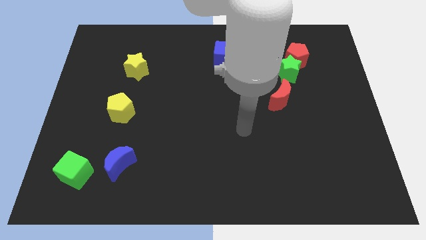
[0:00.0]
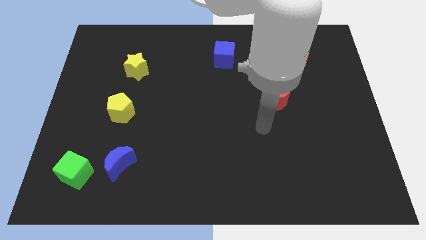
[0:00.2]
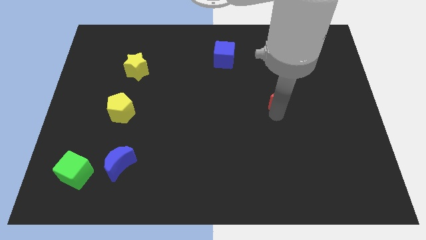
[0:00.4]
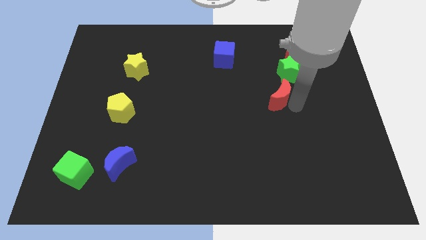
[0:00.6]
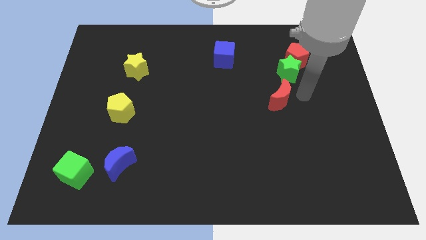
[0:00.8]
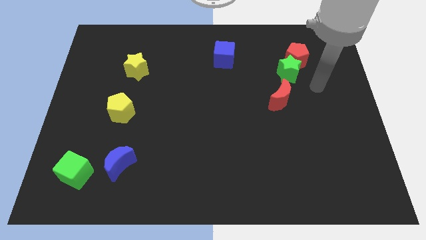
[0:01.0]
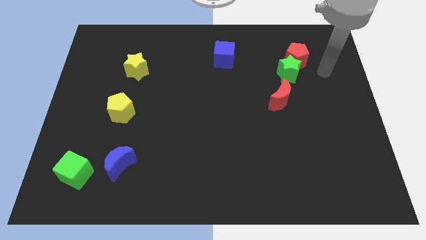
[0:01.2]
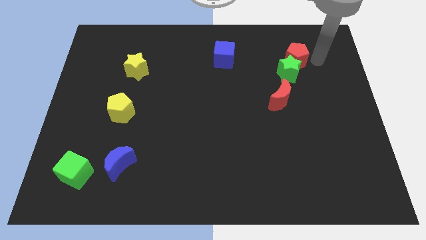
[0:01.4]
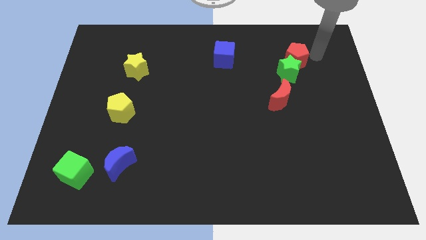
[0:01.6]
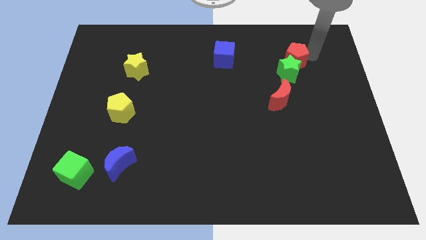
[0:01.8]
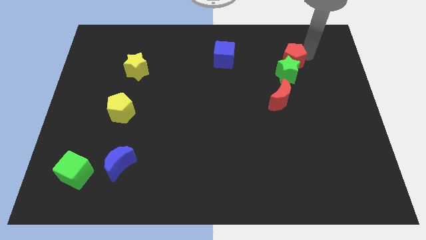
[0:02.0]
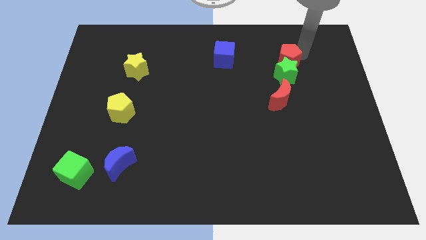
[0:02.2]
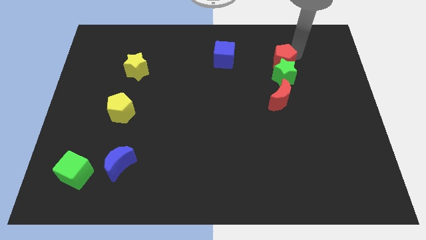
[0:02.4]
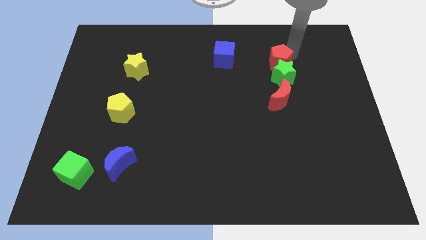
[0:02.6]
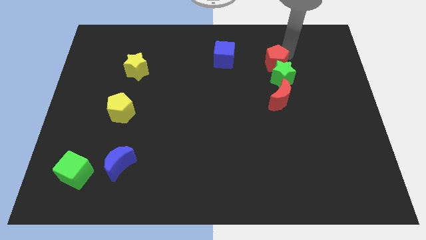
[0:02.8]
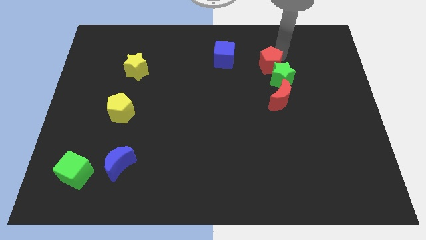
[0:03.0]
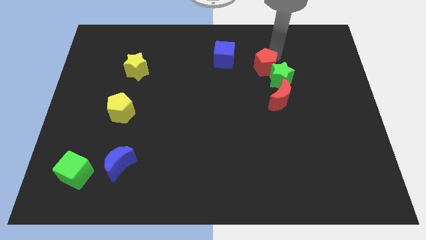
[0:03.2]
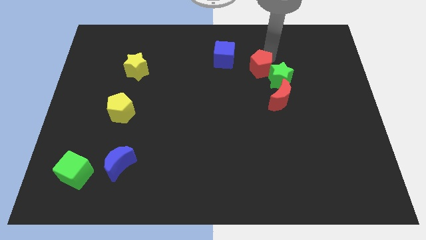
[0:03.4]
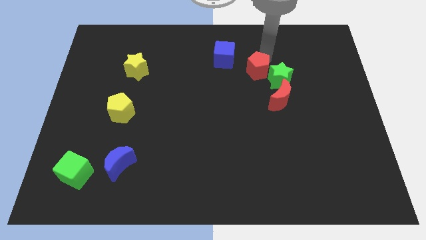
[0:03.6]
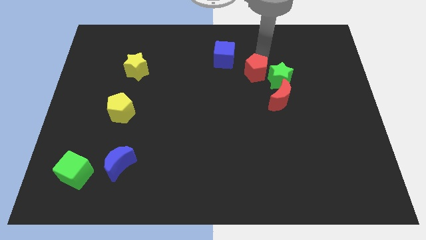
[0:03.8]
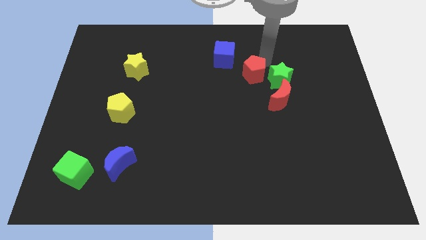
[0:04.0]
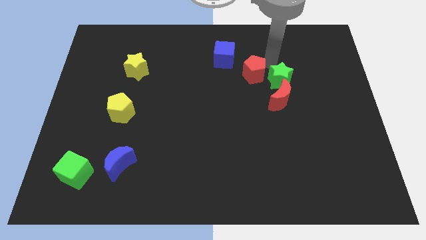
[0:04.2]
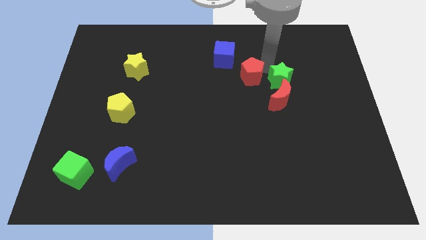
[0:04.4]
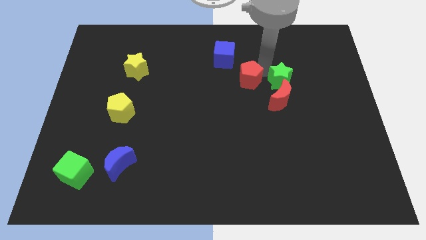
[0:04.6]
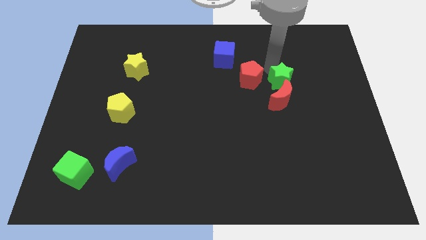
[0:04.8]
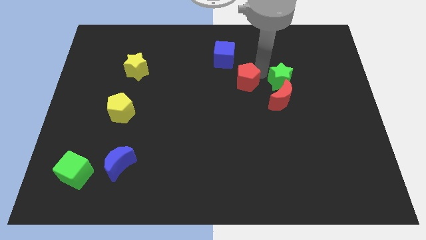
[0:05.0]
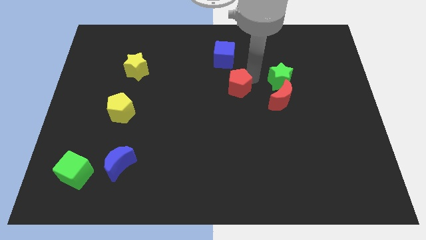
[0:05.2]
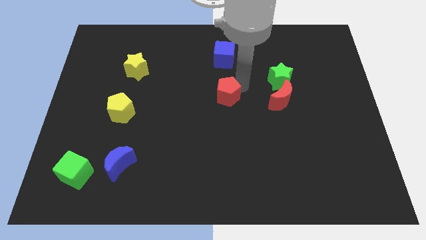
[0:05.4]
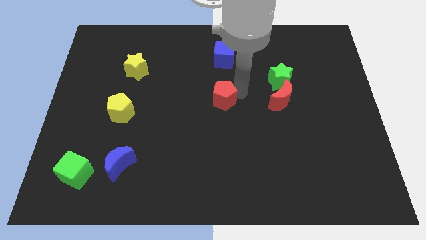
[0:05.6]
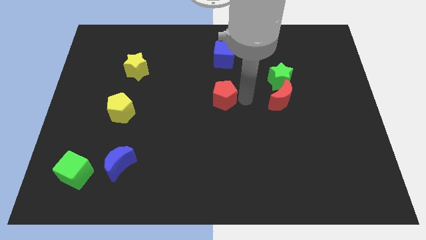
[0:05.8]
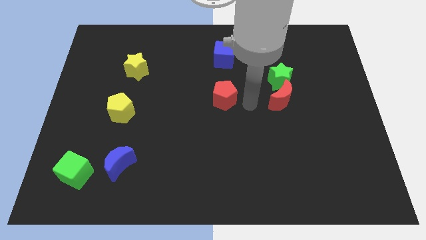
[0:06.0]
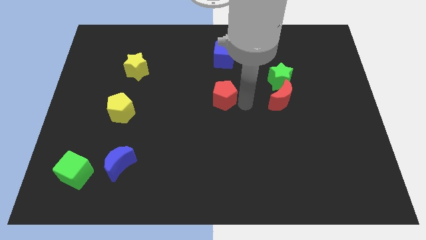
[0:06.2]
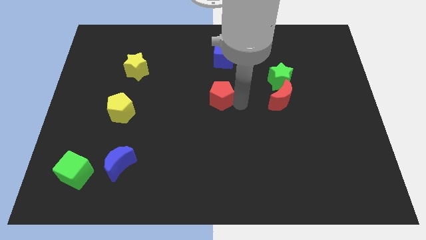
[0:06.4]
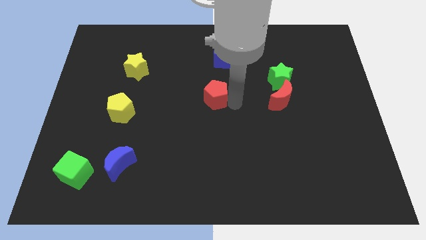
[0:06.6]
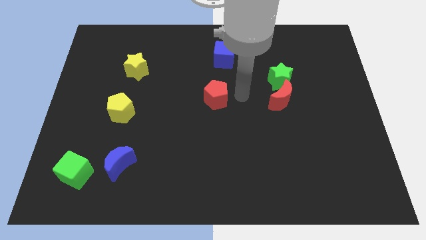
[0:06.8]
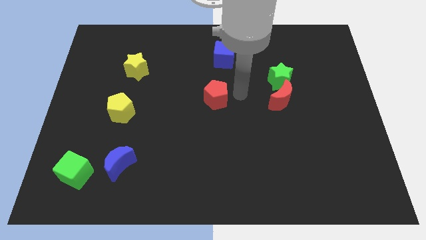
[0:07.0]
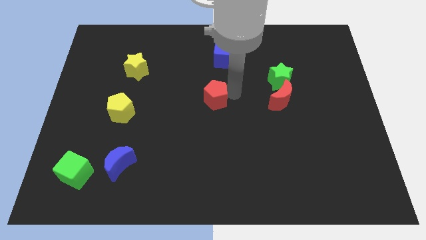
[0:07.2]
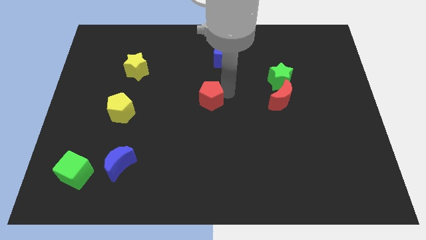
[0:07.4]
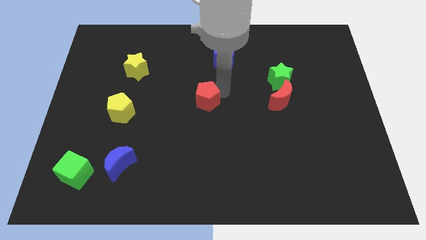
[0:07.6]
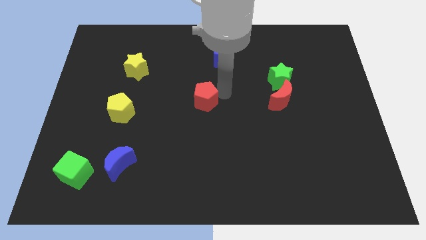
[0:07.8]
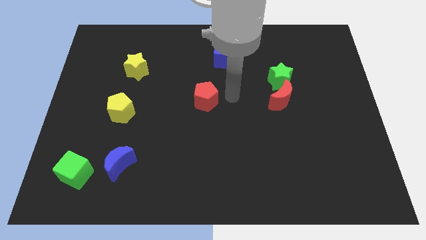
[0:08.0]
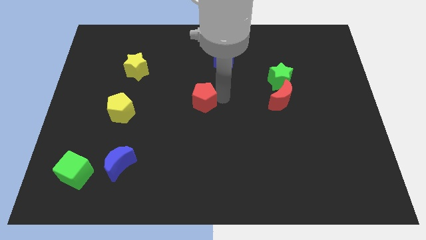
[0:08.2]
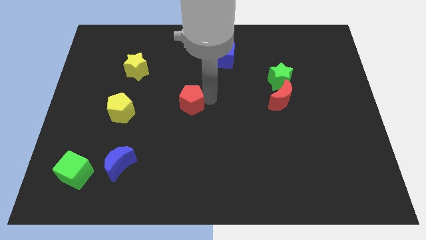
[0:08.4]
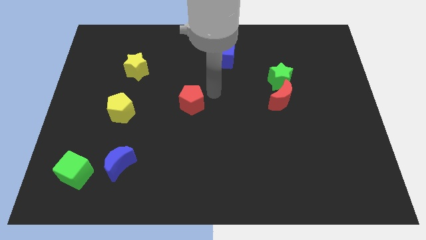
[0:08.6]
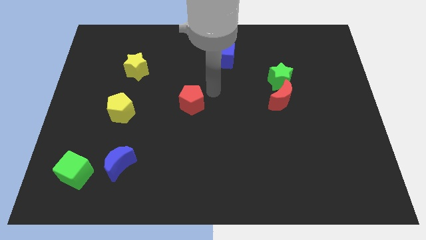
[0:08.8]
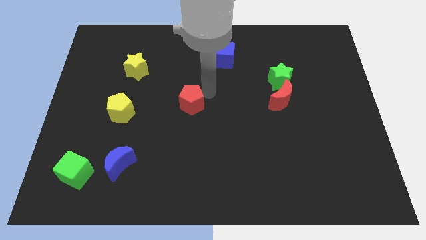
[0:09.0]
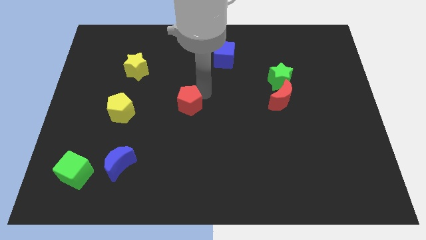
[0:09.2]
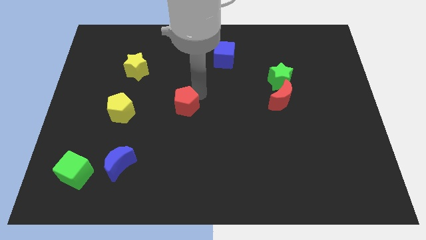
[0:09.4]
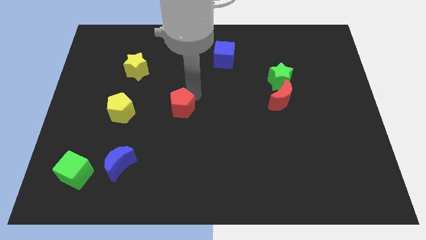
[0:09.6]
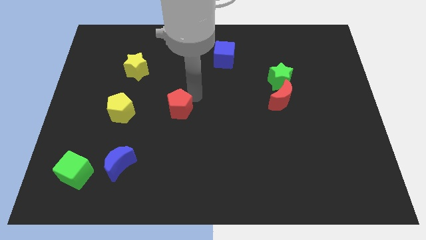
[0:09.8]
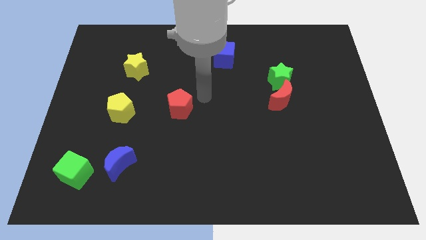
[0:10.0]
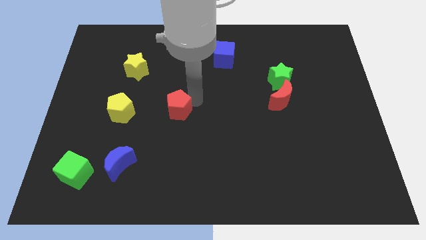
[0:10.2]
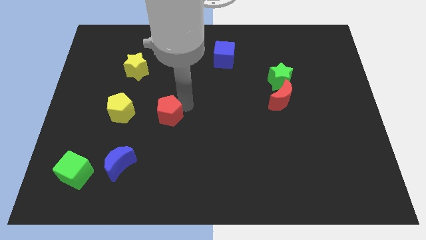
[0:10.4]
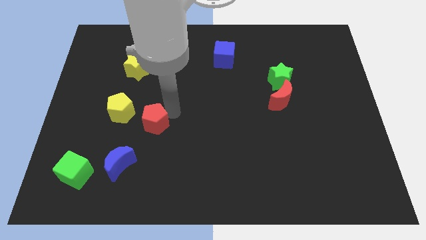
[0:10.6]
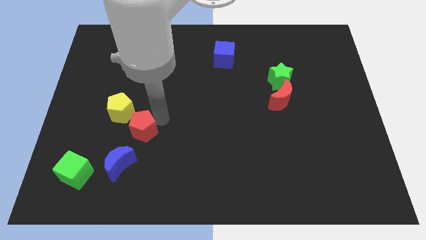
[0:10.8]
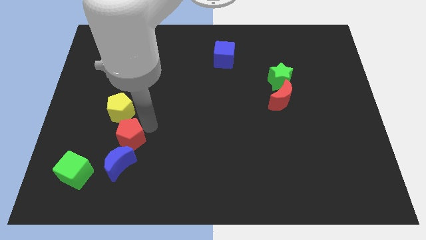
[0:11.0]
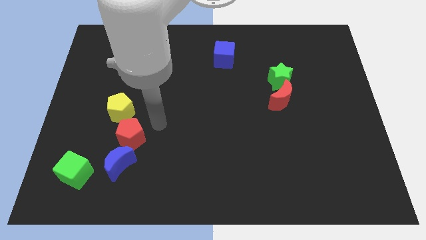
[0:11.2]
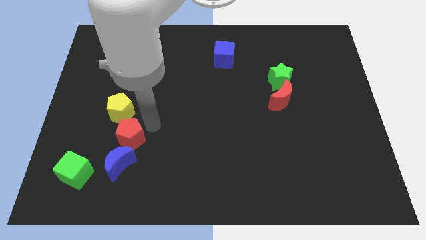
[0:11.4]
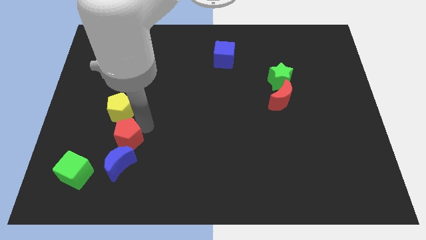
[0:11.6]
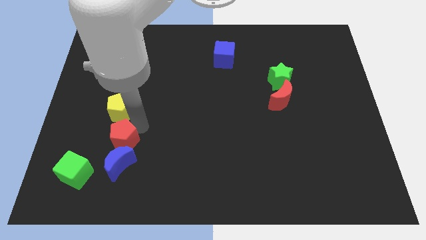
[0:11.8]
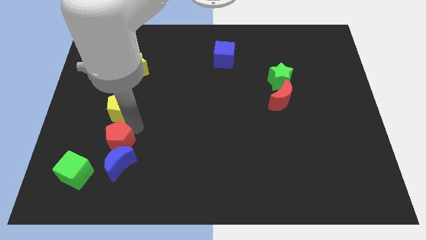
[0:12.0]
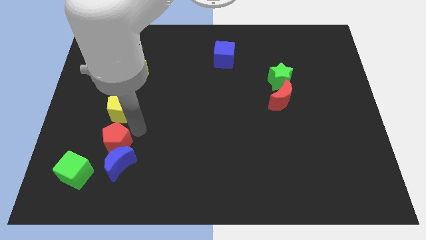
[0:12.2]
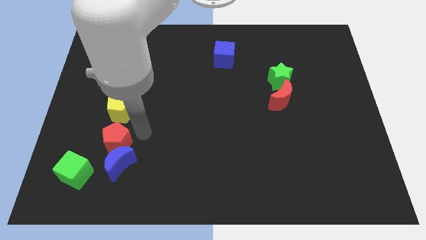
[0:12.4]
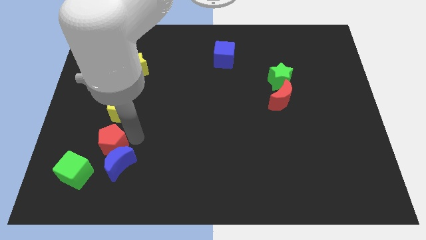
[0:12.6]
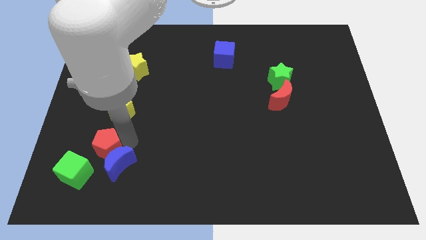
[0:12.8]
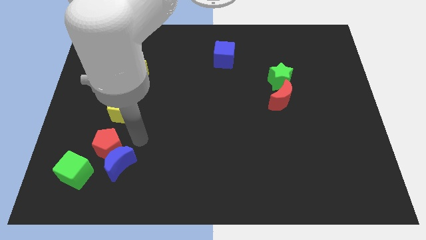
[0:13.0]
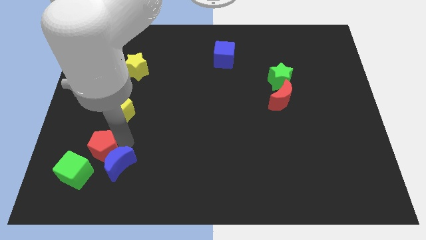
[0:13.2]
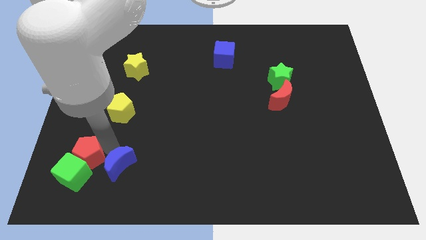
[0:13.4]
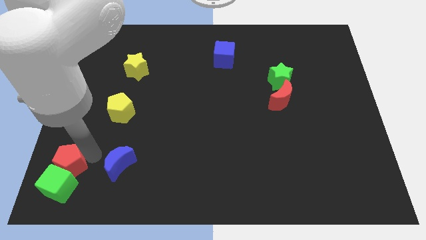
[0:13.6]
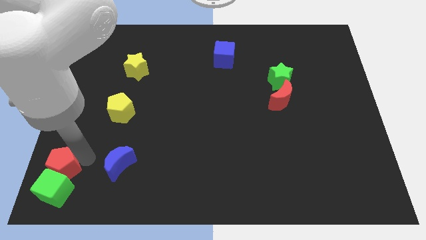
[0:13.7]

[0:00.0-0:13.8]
put the red pentagon to the bottom left corner

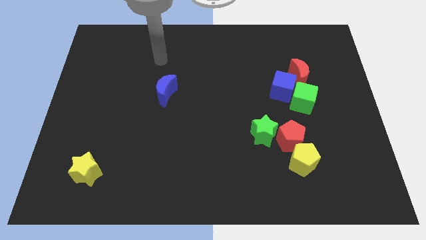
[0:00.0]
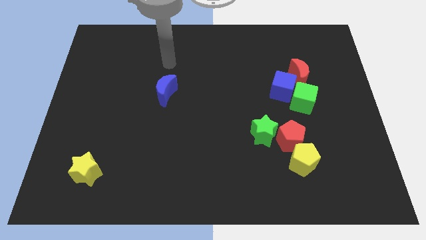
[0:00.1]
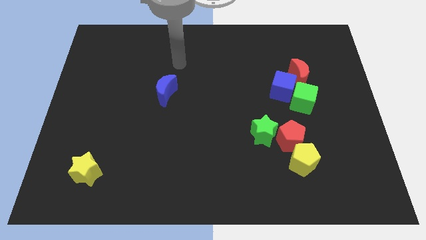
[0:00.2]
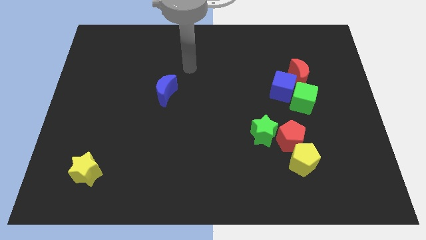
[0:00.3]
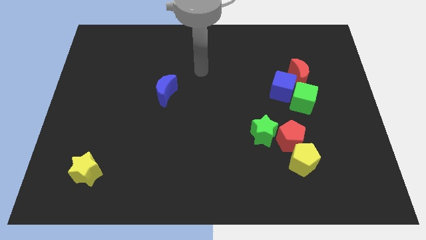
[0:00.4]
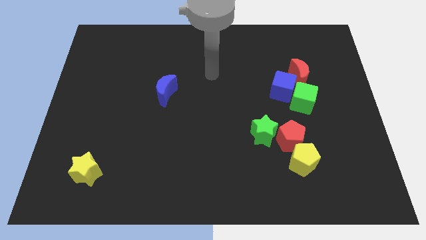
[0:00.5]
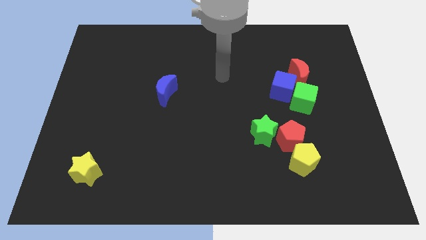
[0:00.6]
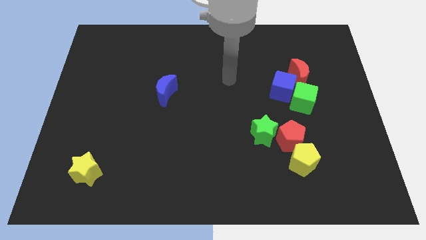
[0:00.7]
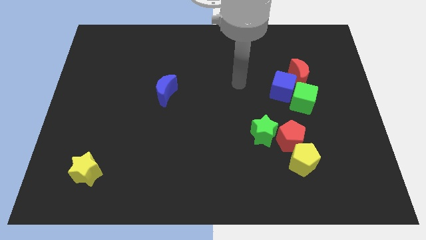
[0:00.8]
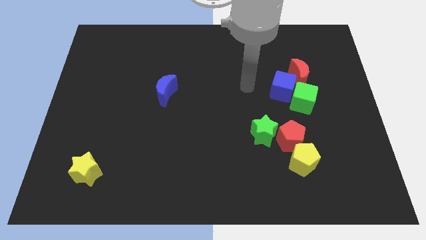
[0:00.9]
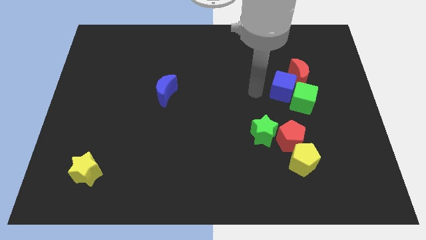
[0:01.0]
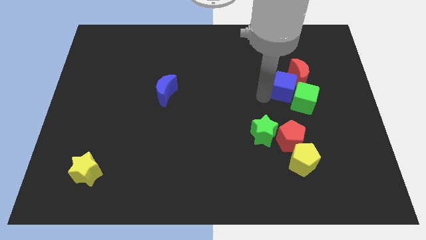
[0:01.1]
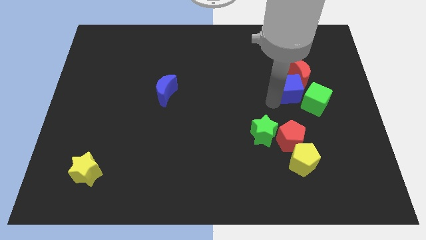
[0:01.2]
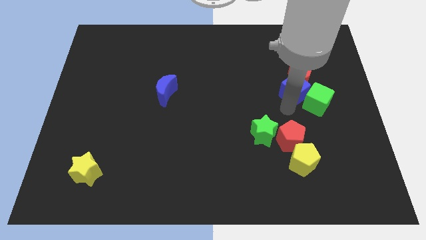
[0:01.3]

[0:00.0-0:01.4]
push the green cube to the right side of the board
